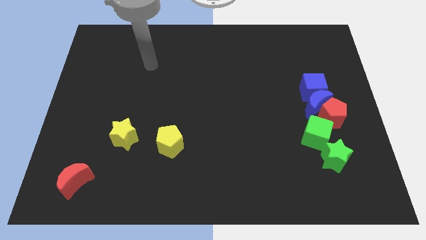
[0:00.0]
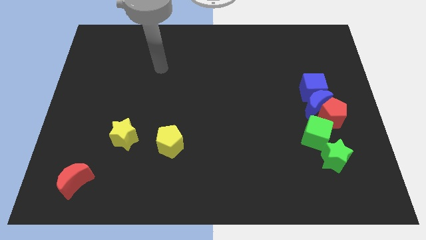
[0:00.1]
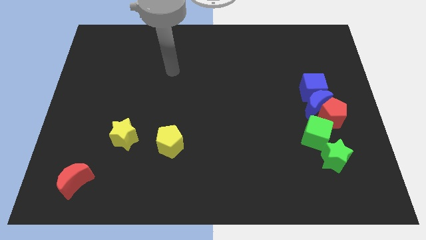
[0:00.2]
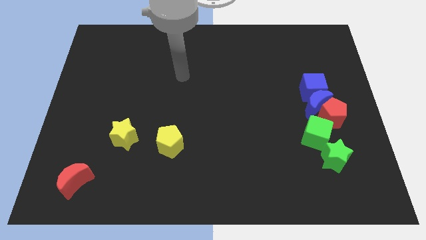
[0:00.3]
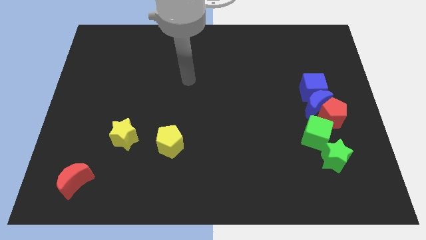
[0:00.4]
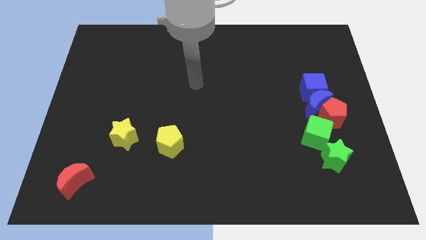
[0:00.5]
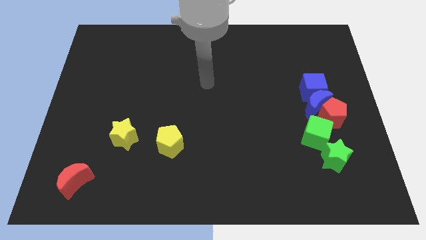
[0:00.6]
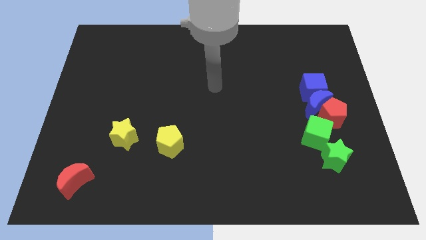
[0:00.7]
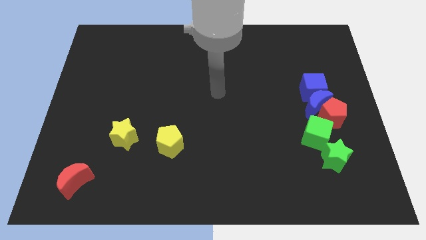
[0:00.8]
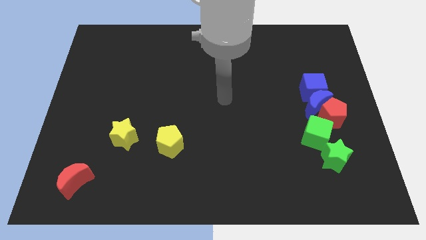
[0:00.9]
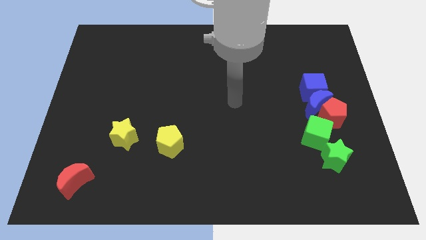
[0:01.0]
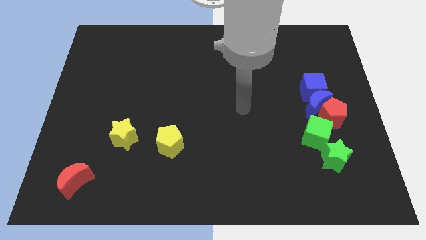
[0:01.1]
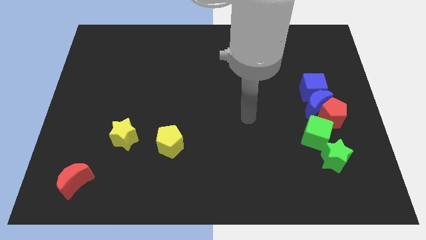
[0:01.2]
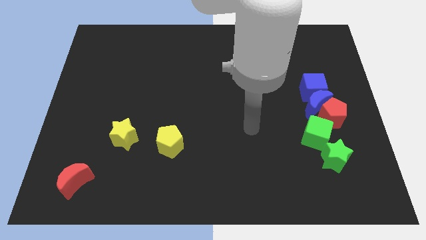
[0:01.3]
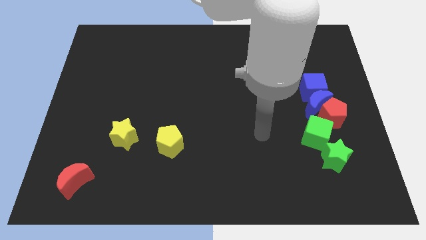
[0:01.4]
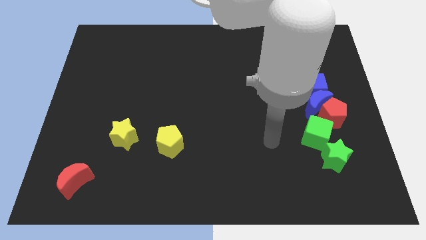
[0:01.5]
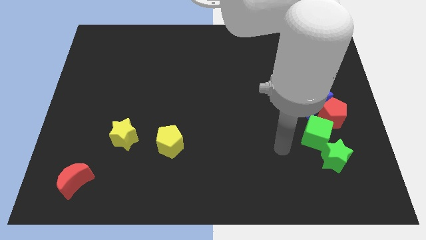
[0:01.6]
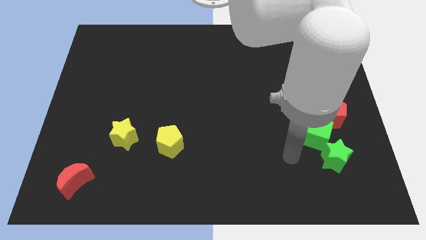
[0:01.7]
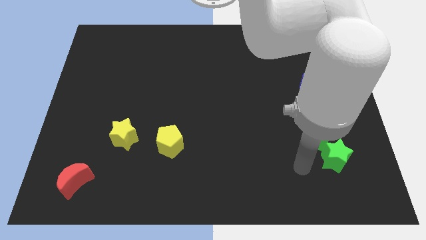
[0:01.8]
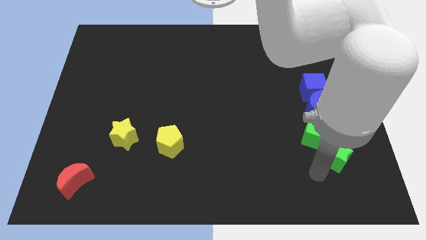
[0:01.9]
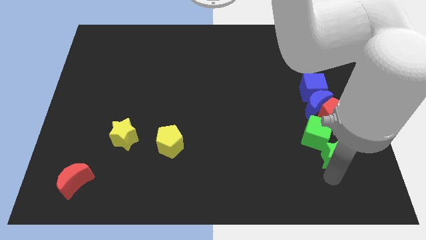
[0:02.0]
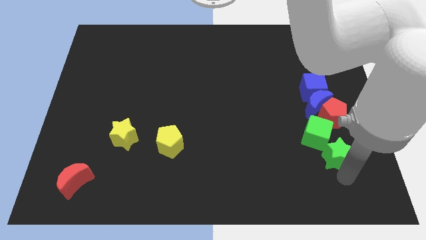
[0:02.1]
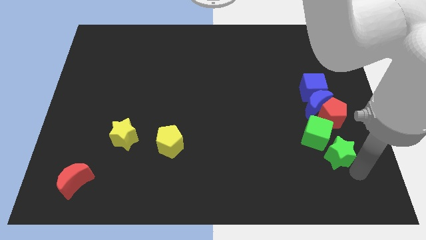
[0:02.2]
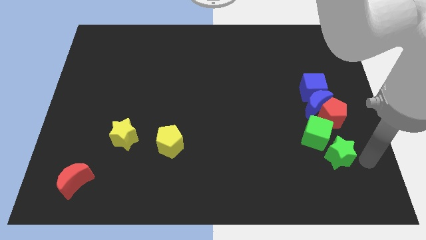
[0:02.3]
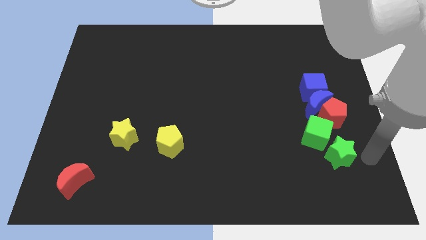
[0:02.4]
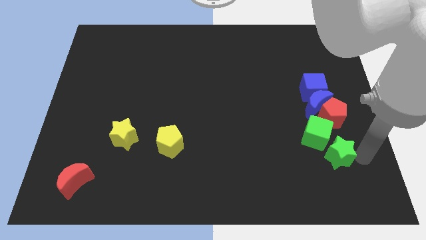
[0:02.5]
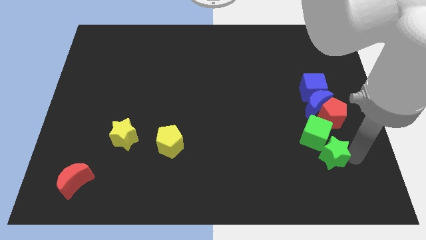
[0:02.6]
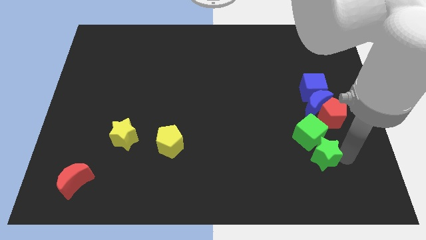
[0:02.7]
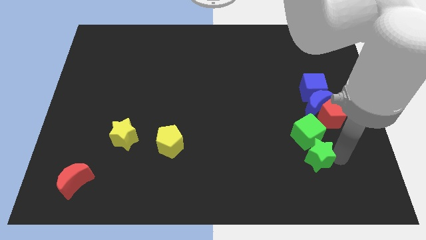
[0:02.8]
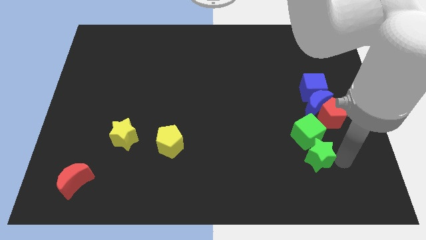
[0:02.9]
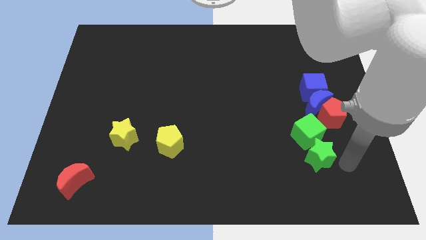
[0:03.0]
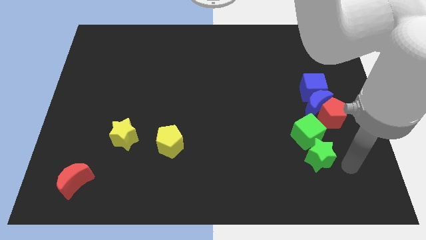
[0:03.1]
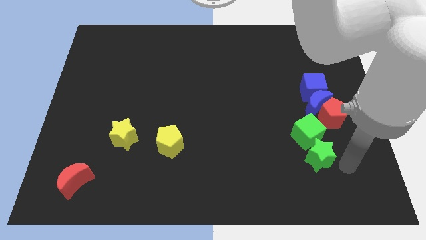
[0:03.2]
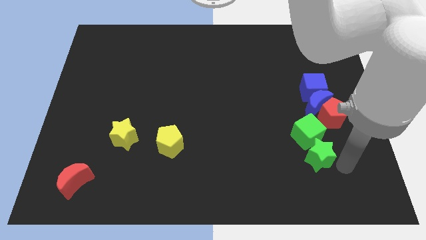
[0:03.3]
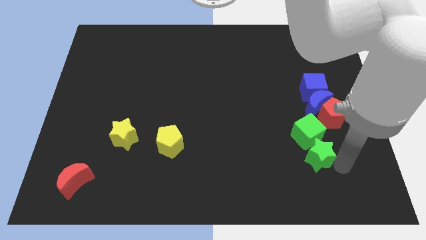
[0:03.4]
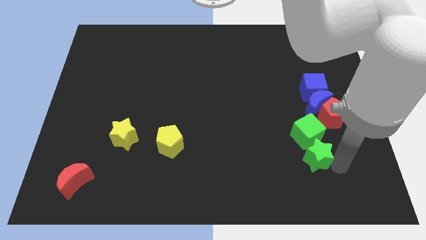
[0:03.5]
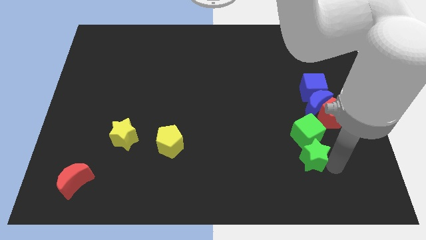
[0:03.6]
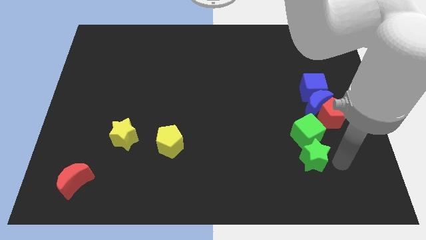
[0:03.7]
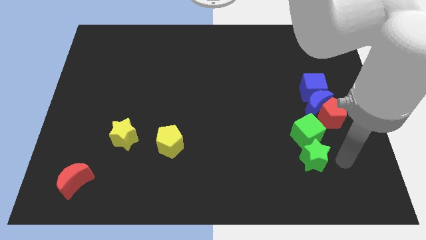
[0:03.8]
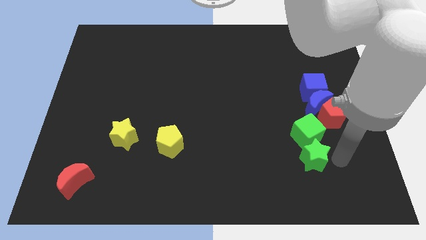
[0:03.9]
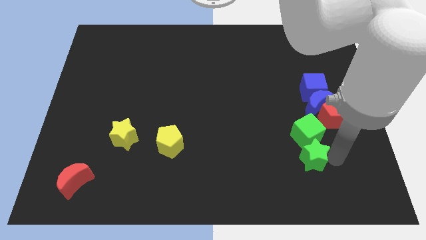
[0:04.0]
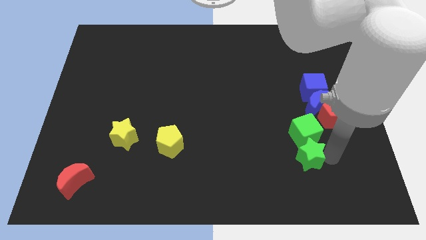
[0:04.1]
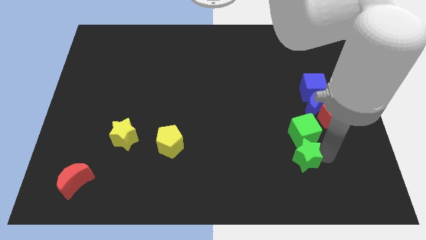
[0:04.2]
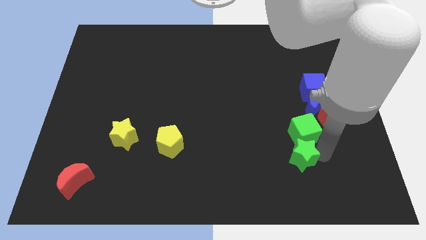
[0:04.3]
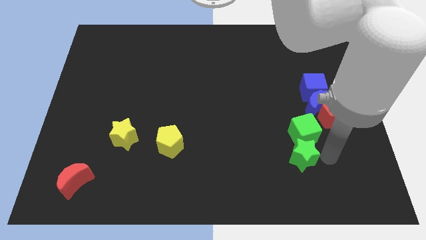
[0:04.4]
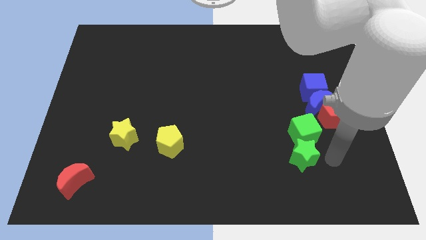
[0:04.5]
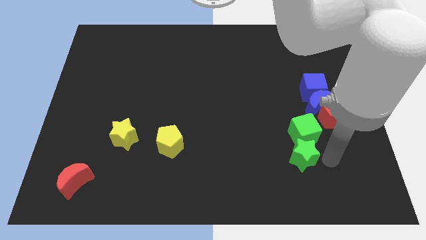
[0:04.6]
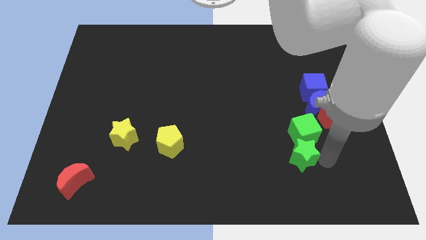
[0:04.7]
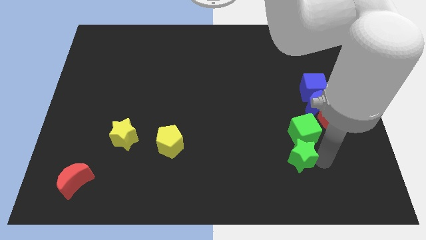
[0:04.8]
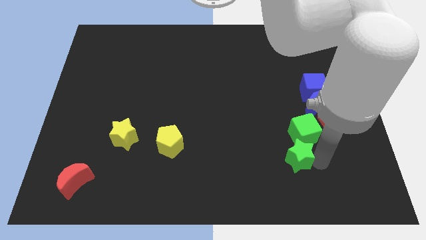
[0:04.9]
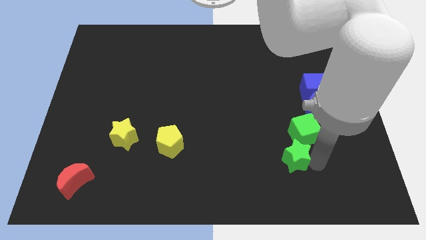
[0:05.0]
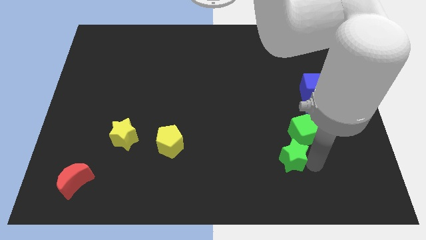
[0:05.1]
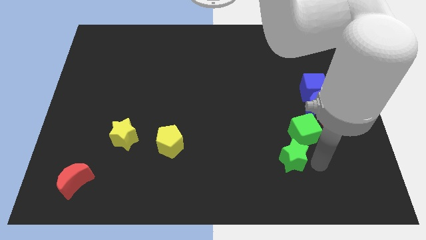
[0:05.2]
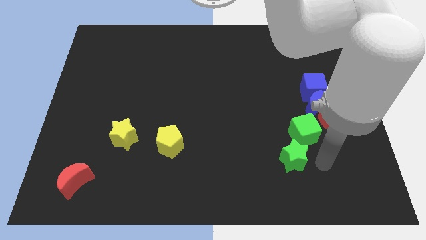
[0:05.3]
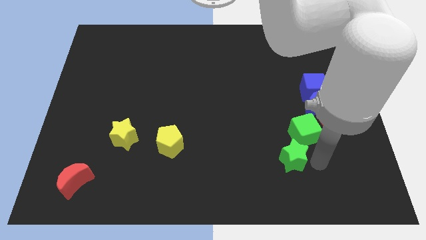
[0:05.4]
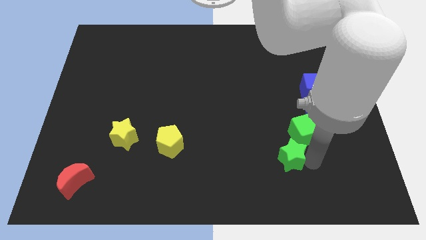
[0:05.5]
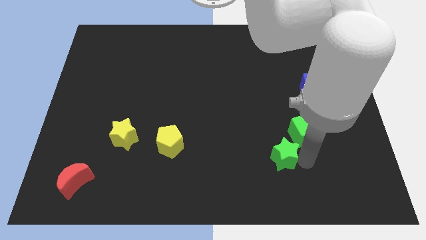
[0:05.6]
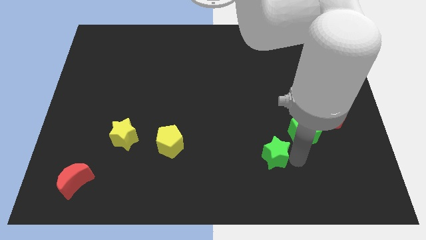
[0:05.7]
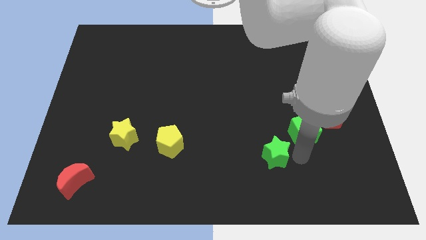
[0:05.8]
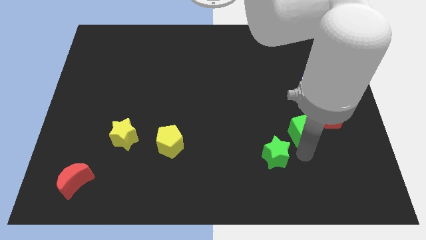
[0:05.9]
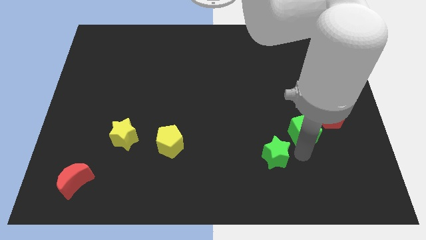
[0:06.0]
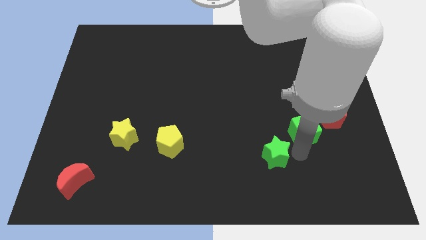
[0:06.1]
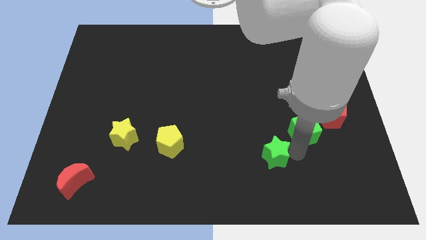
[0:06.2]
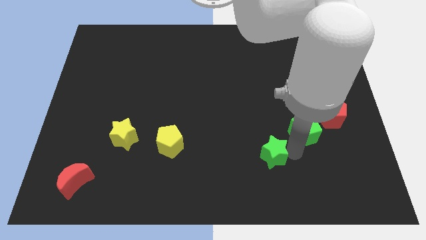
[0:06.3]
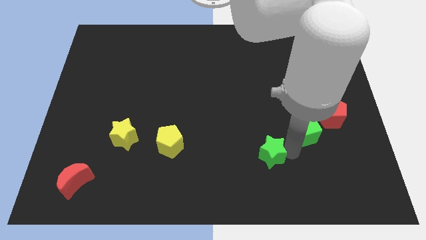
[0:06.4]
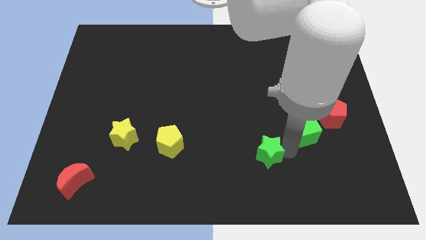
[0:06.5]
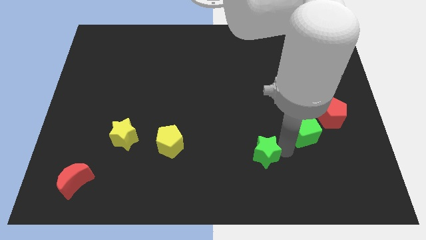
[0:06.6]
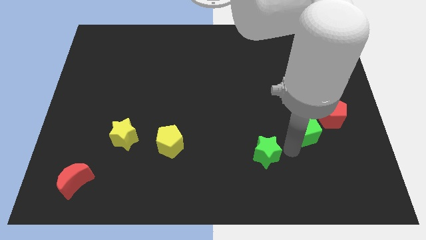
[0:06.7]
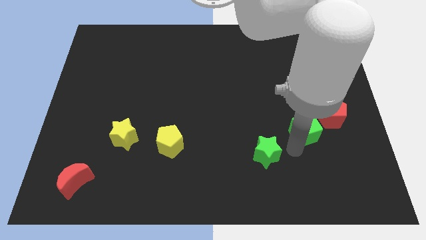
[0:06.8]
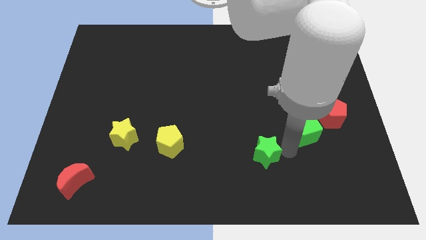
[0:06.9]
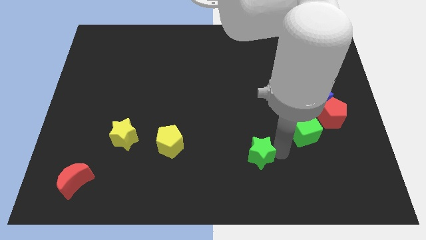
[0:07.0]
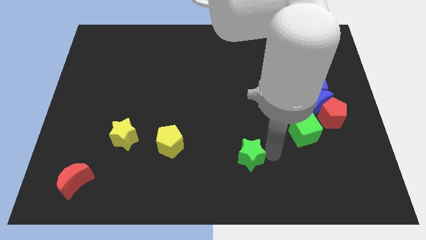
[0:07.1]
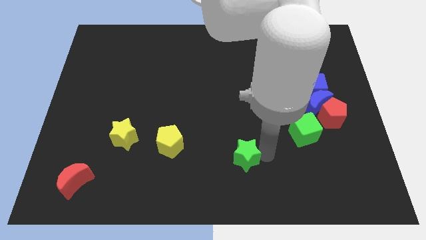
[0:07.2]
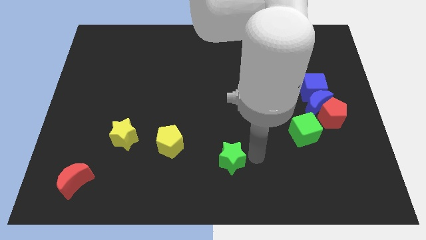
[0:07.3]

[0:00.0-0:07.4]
slide the green star to the left

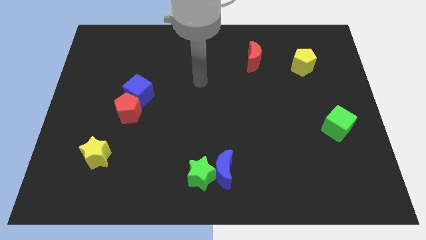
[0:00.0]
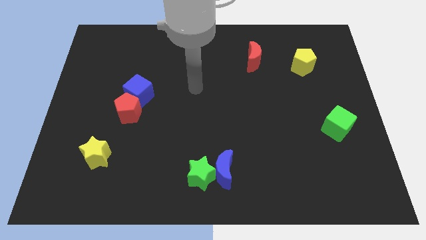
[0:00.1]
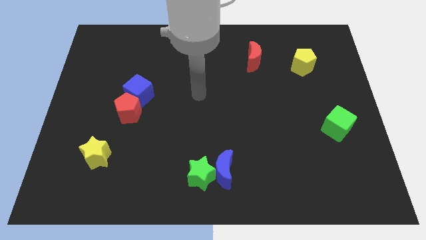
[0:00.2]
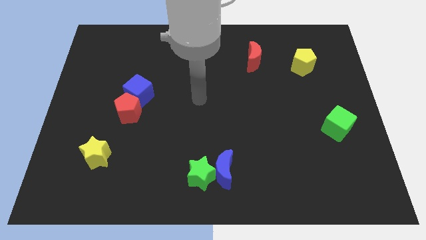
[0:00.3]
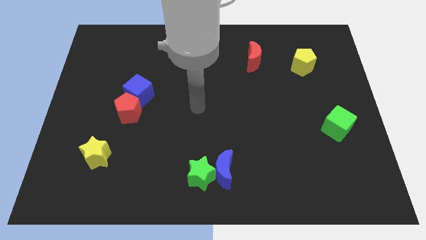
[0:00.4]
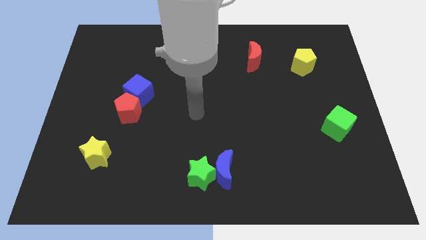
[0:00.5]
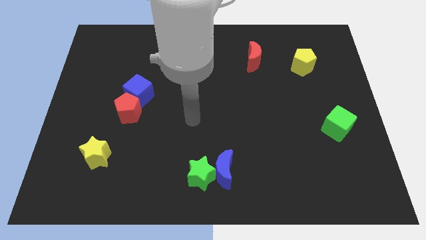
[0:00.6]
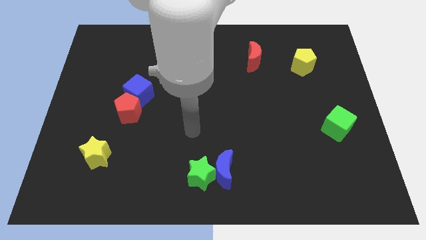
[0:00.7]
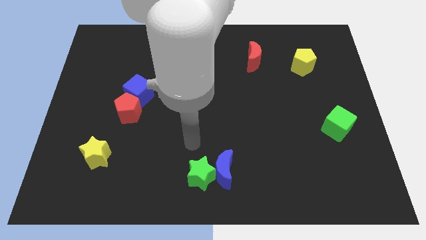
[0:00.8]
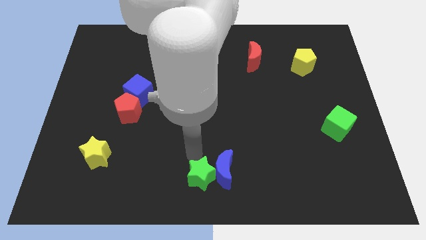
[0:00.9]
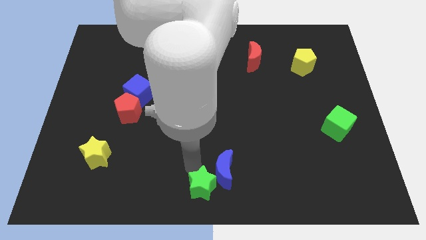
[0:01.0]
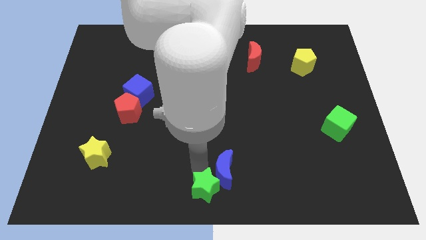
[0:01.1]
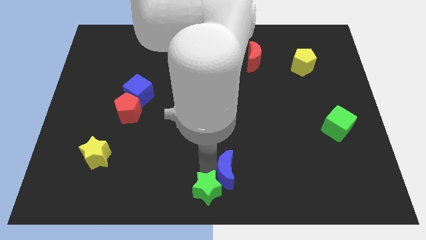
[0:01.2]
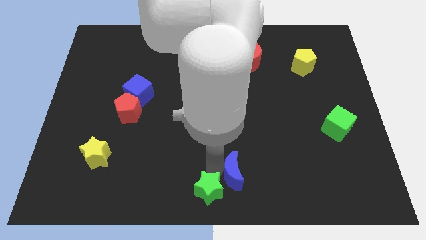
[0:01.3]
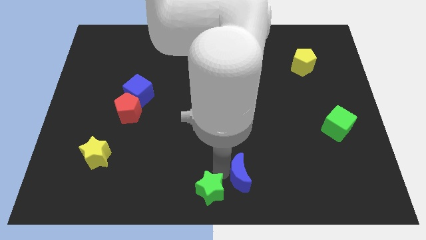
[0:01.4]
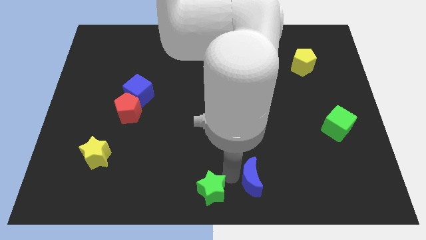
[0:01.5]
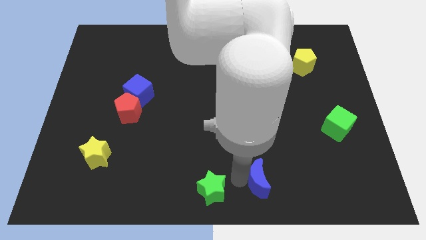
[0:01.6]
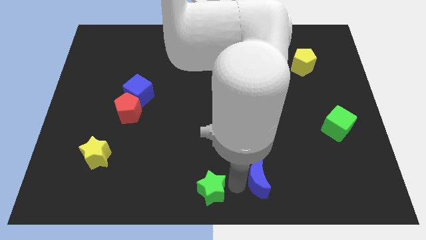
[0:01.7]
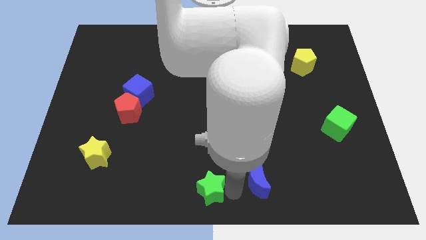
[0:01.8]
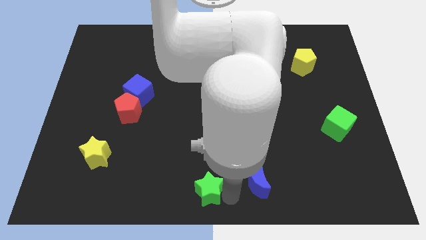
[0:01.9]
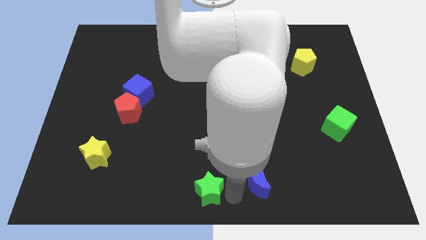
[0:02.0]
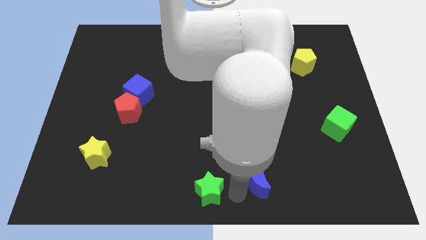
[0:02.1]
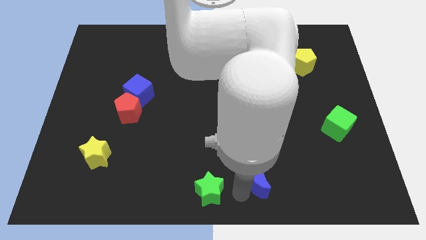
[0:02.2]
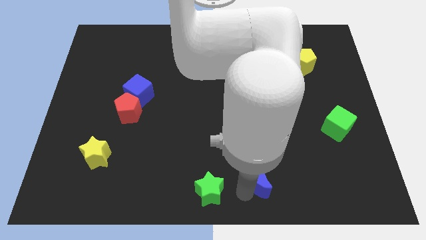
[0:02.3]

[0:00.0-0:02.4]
push the blue moon somewhat right
